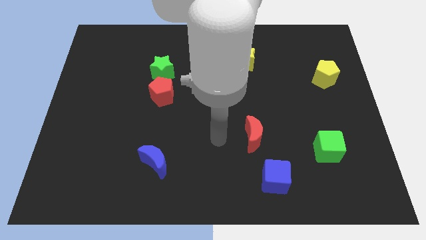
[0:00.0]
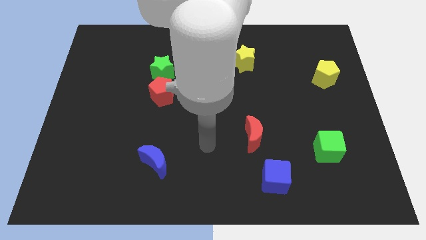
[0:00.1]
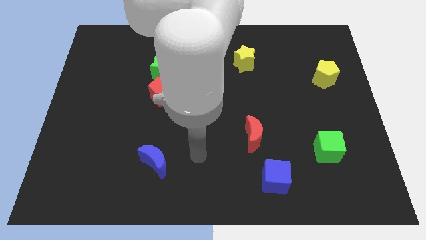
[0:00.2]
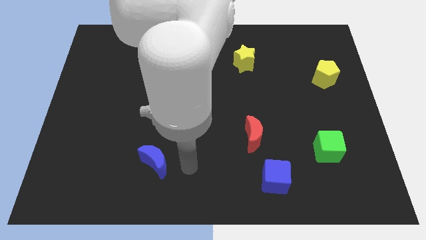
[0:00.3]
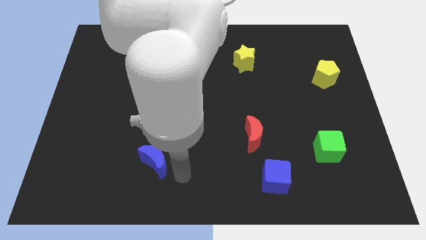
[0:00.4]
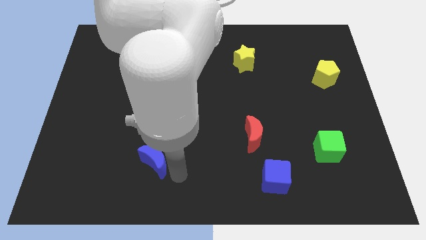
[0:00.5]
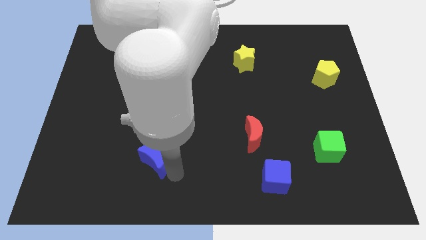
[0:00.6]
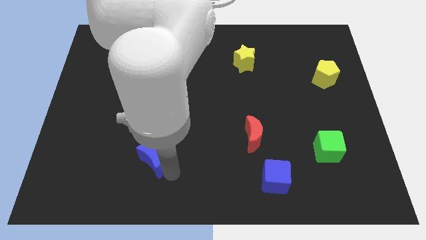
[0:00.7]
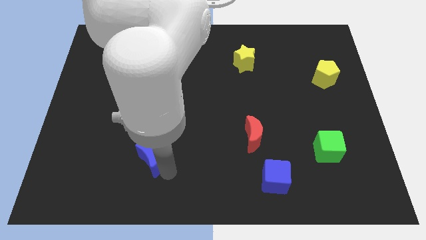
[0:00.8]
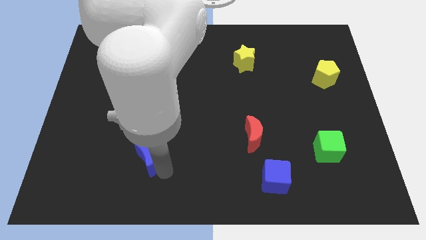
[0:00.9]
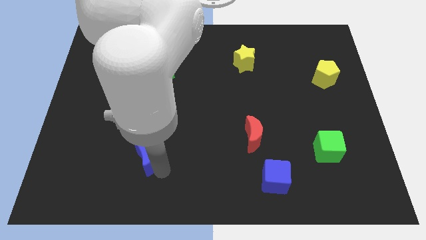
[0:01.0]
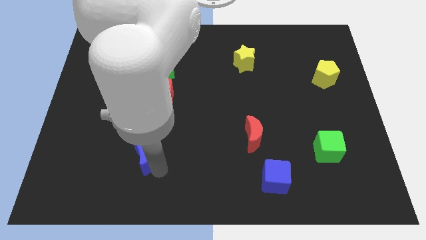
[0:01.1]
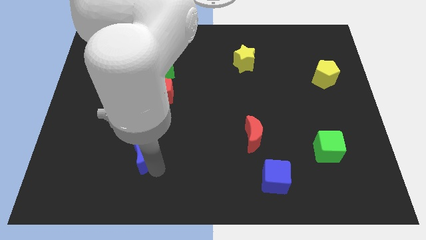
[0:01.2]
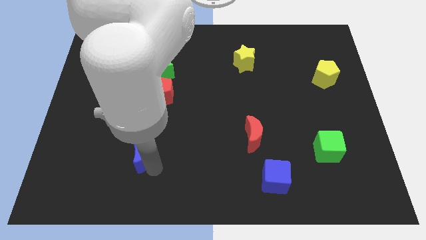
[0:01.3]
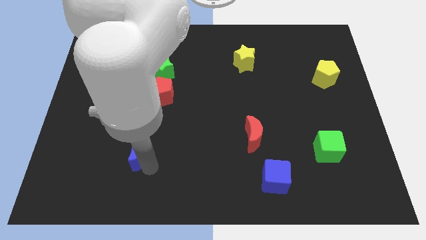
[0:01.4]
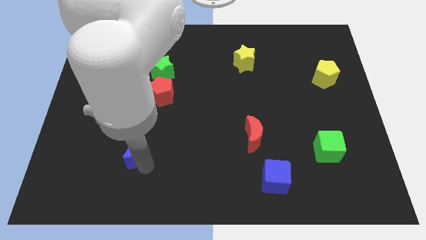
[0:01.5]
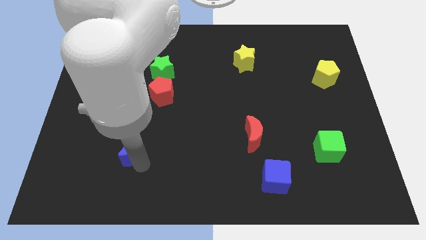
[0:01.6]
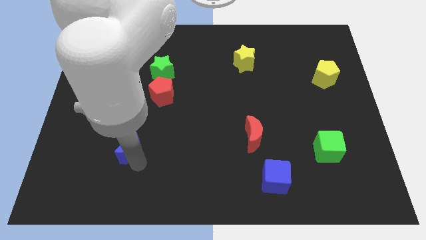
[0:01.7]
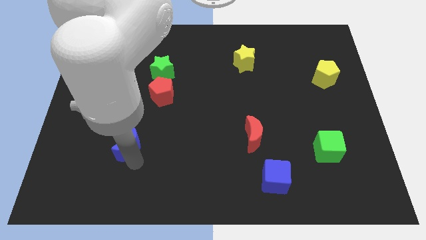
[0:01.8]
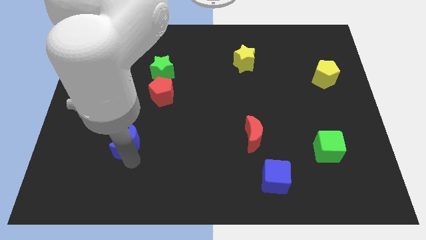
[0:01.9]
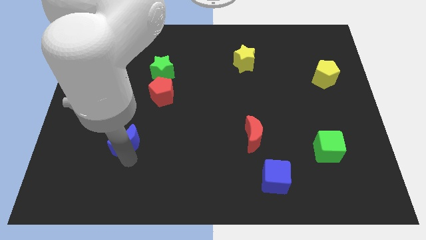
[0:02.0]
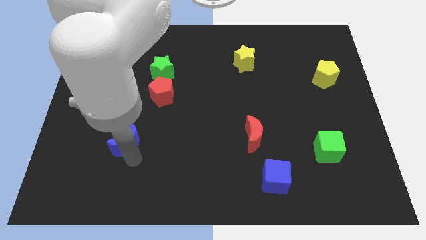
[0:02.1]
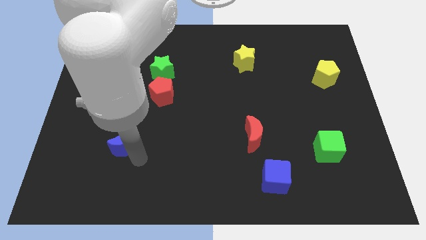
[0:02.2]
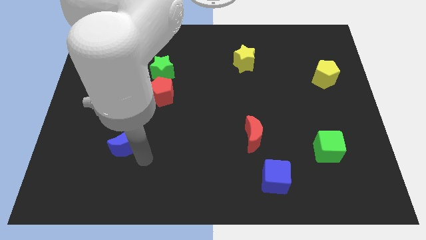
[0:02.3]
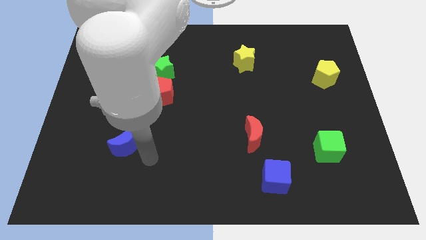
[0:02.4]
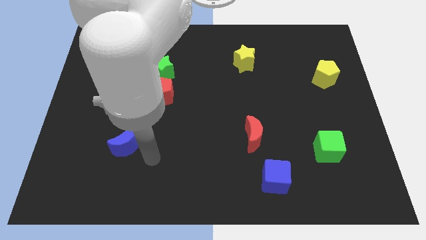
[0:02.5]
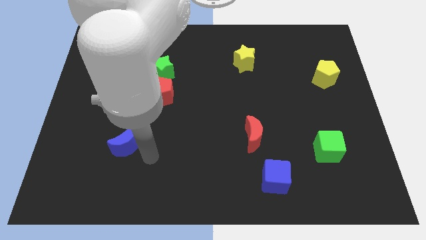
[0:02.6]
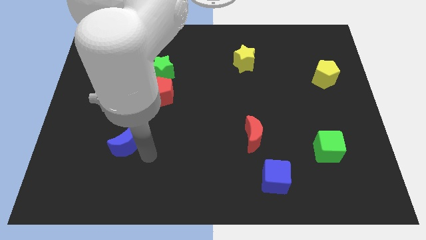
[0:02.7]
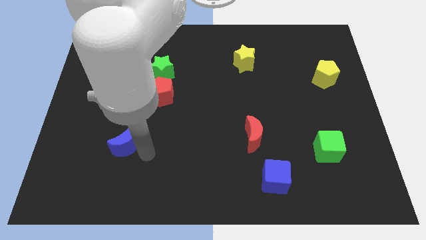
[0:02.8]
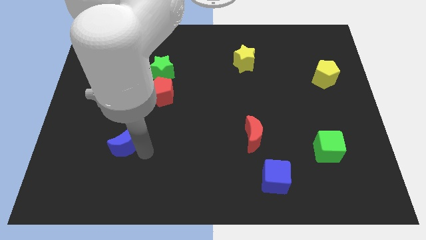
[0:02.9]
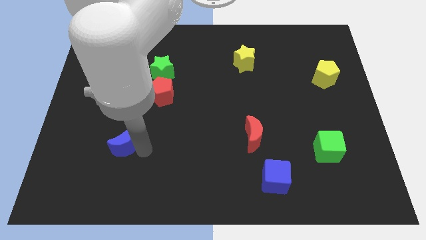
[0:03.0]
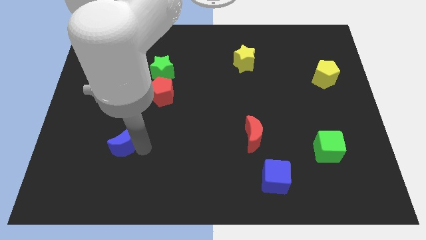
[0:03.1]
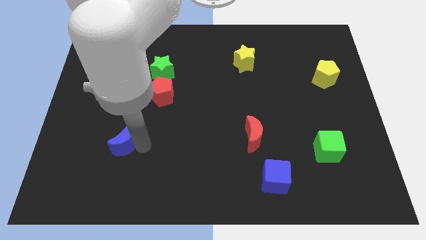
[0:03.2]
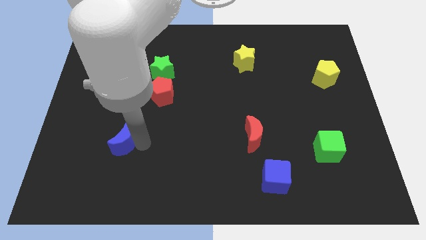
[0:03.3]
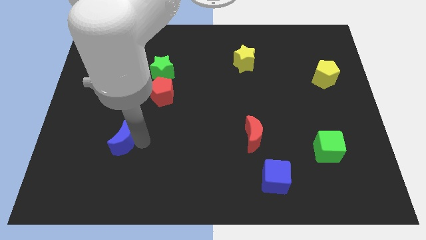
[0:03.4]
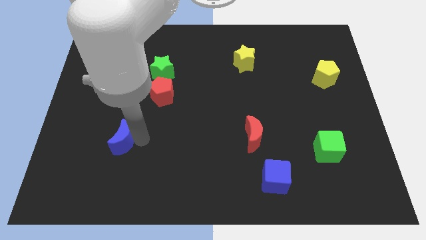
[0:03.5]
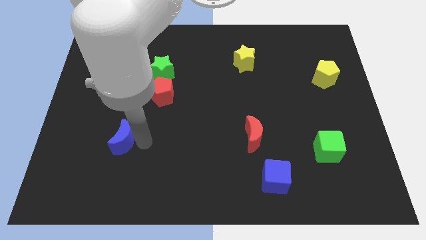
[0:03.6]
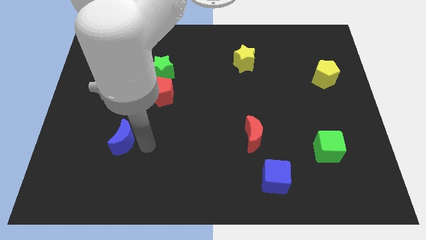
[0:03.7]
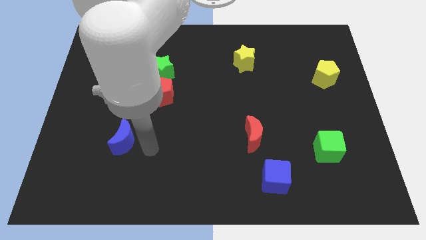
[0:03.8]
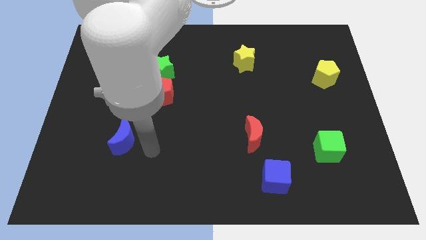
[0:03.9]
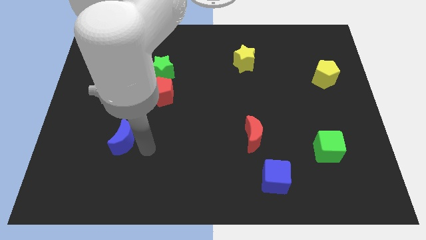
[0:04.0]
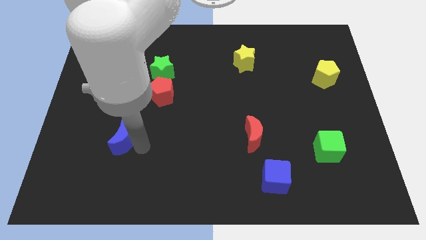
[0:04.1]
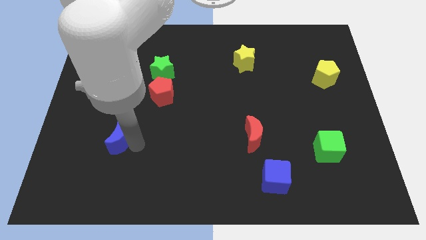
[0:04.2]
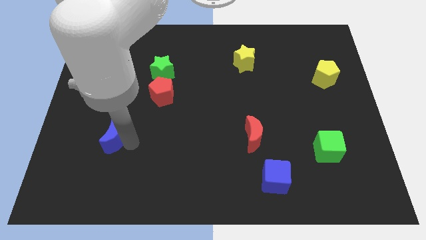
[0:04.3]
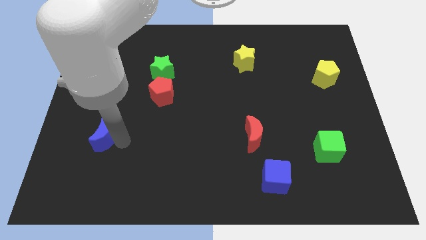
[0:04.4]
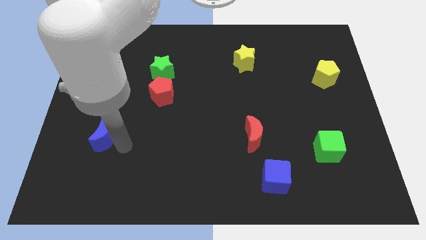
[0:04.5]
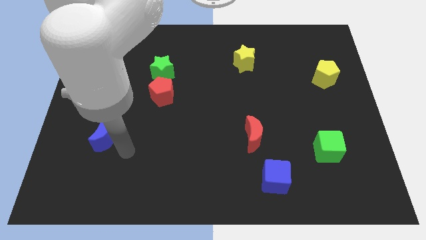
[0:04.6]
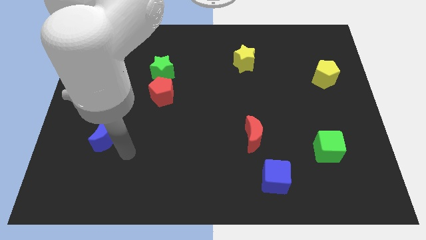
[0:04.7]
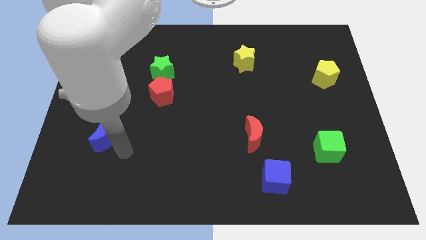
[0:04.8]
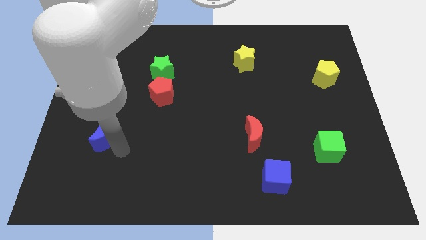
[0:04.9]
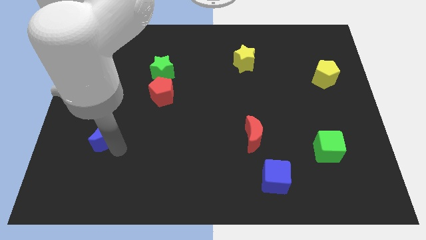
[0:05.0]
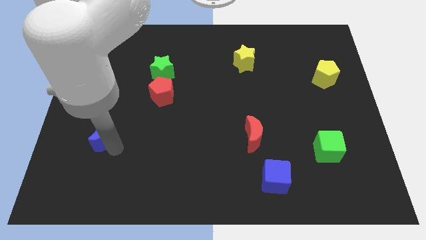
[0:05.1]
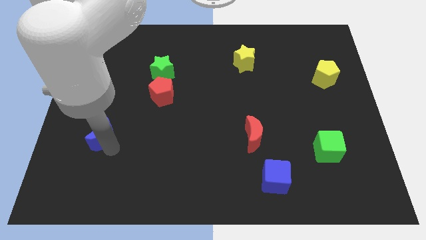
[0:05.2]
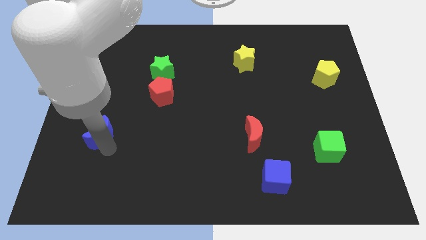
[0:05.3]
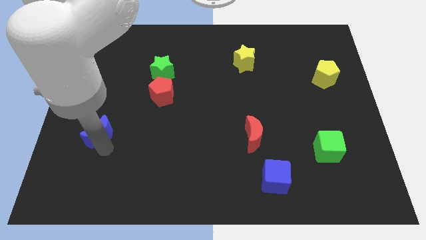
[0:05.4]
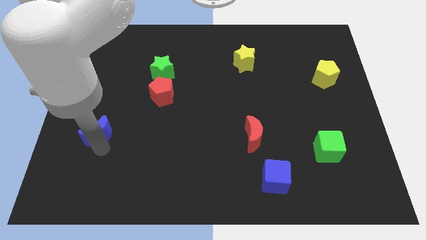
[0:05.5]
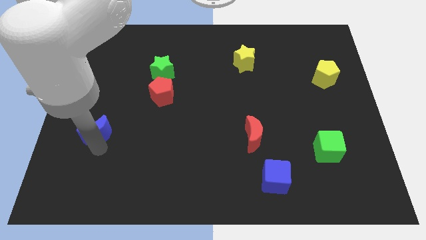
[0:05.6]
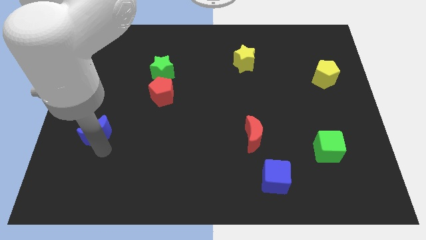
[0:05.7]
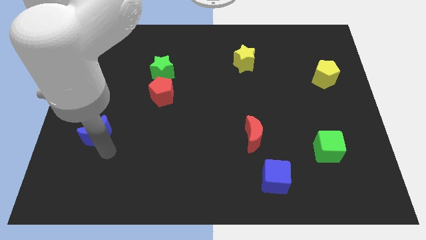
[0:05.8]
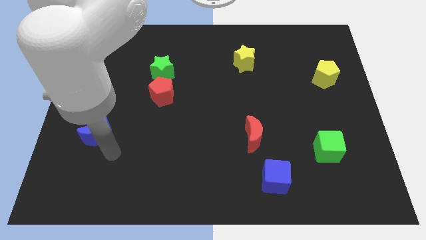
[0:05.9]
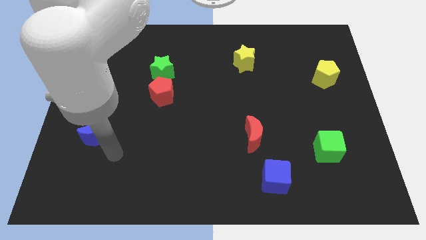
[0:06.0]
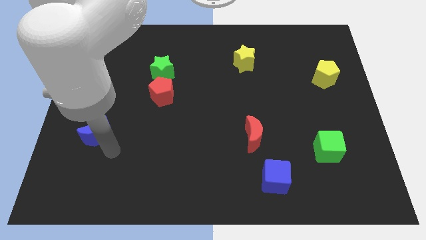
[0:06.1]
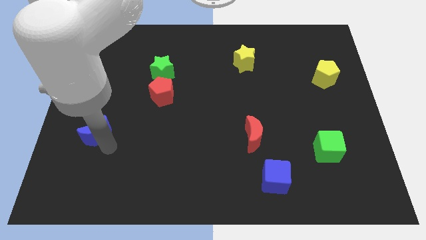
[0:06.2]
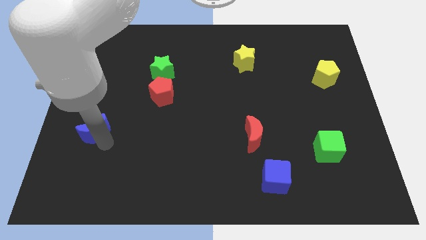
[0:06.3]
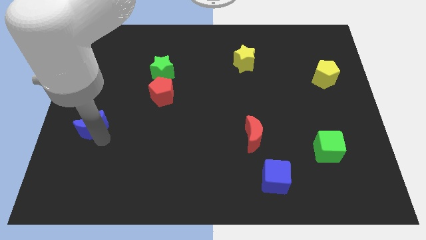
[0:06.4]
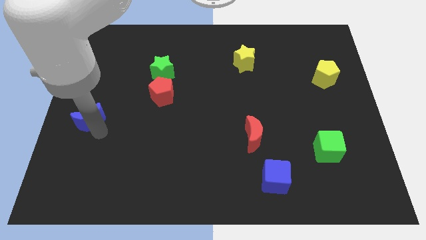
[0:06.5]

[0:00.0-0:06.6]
put the blue moon to the center left
